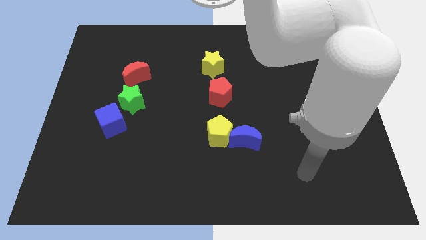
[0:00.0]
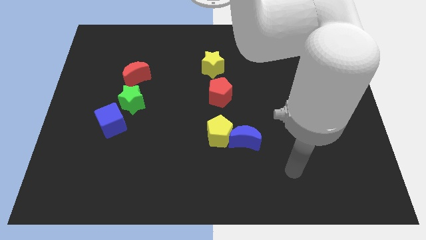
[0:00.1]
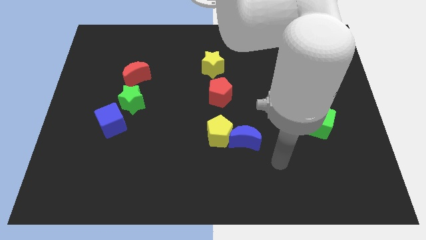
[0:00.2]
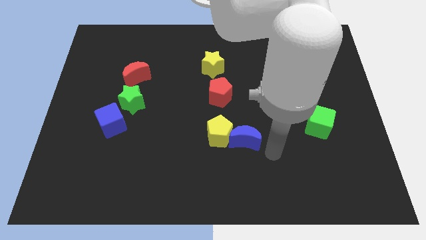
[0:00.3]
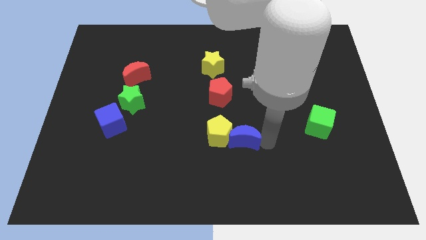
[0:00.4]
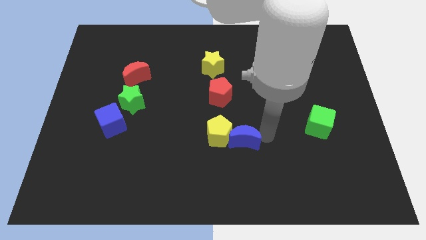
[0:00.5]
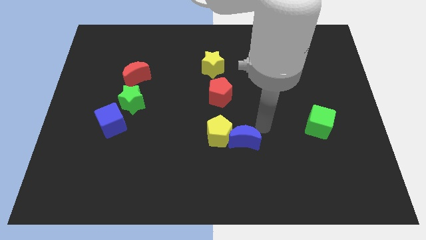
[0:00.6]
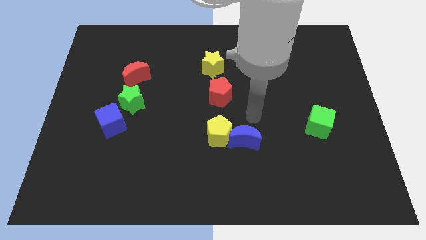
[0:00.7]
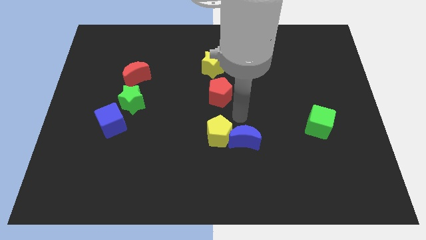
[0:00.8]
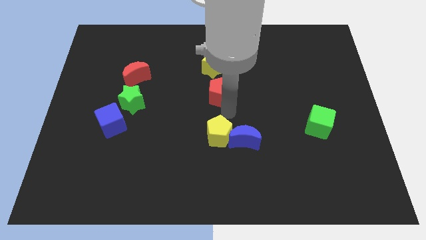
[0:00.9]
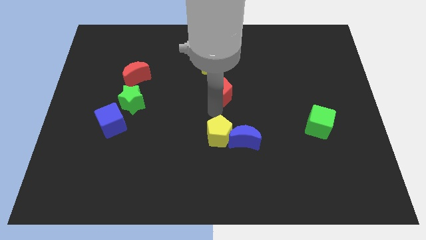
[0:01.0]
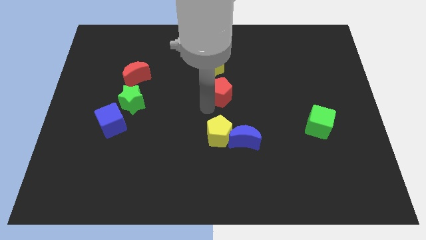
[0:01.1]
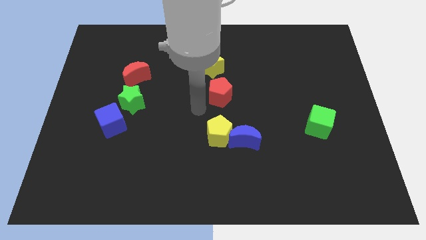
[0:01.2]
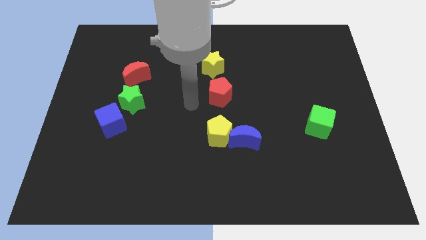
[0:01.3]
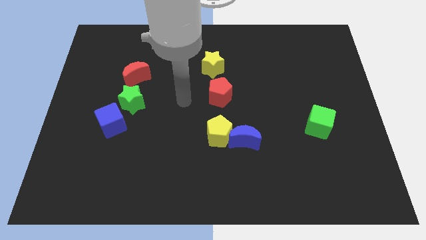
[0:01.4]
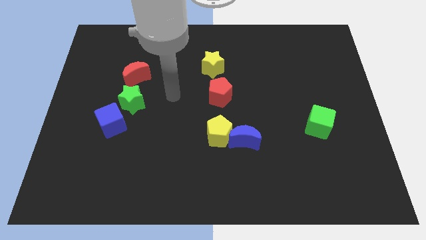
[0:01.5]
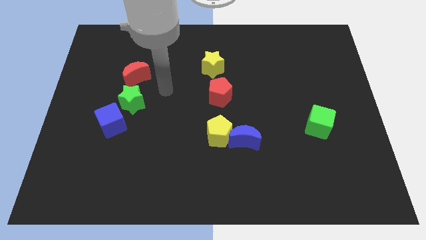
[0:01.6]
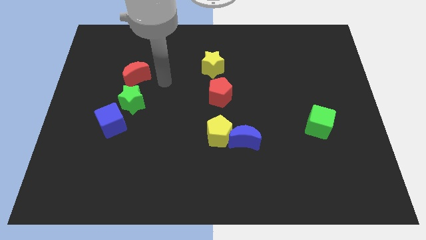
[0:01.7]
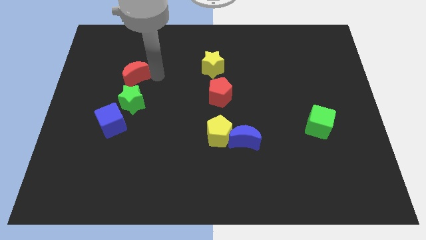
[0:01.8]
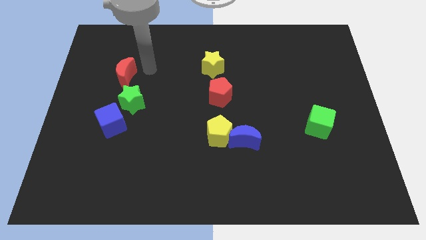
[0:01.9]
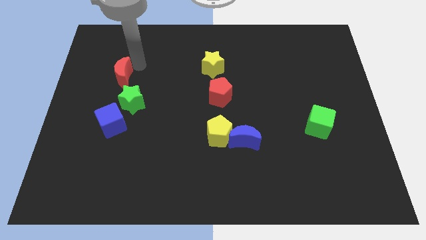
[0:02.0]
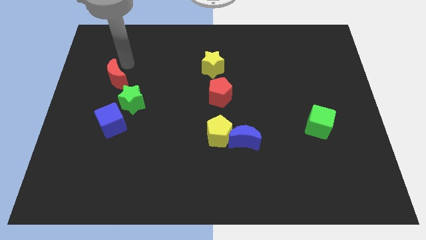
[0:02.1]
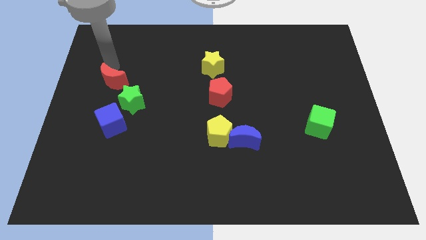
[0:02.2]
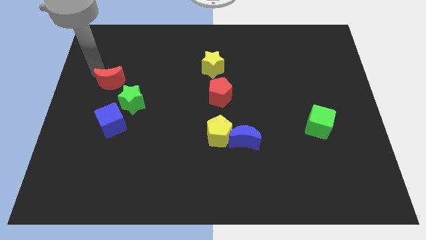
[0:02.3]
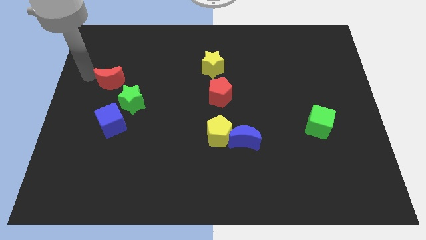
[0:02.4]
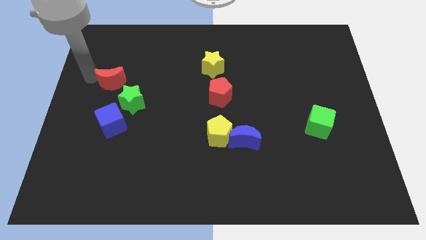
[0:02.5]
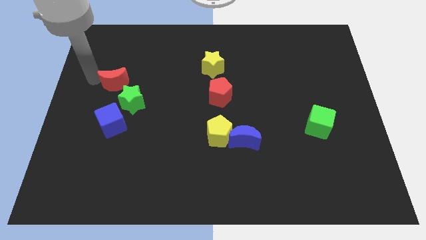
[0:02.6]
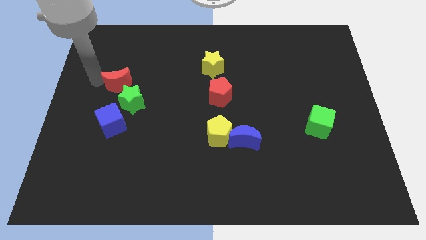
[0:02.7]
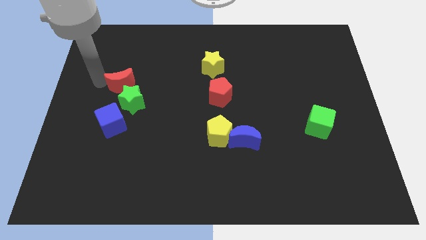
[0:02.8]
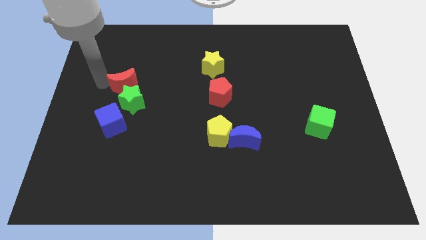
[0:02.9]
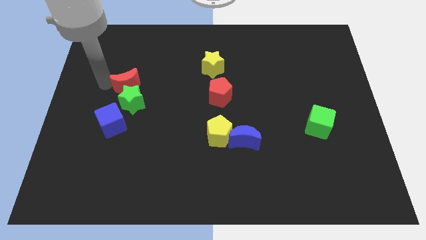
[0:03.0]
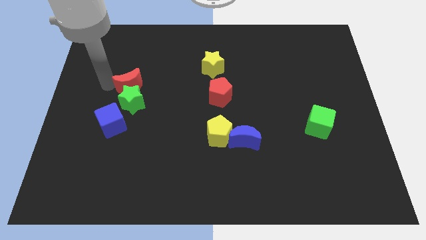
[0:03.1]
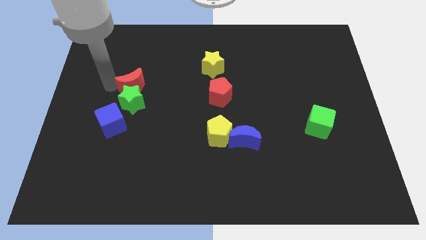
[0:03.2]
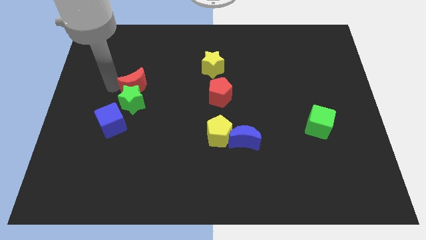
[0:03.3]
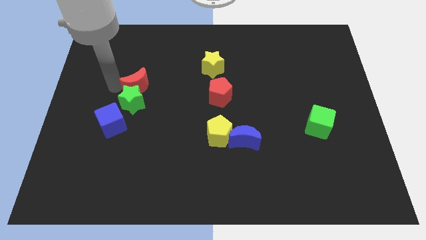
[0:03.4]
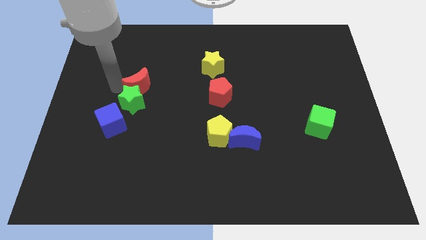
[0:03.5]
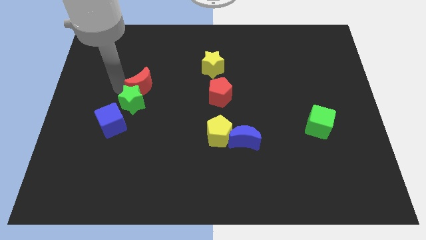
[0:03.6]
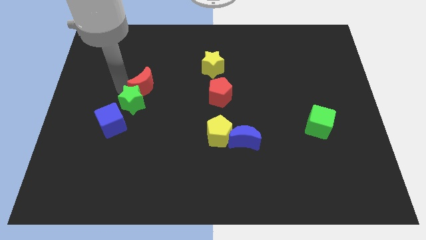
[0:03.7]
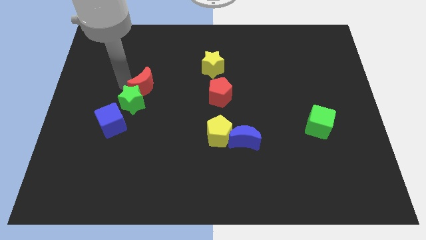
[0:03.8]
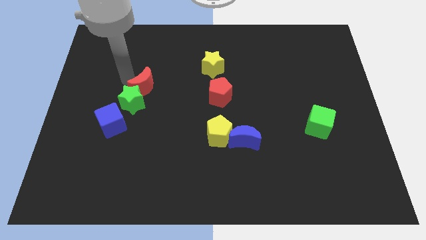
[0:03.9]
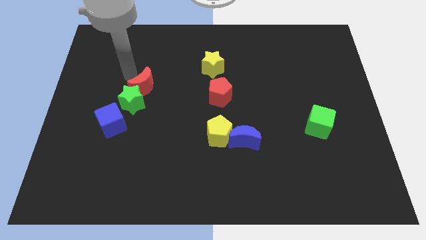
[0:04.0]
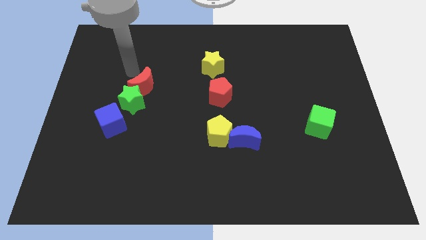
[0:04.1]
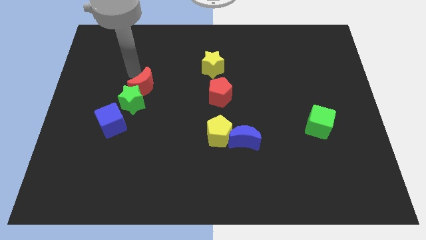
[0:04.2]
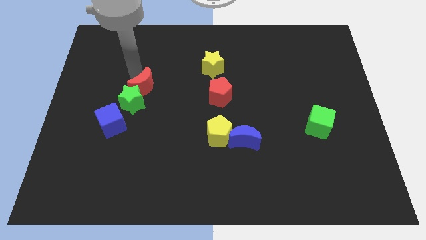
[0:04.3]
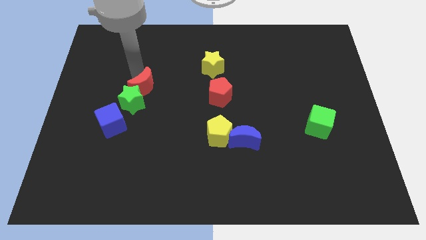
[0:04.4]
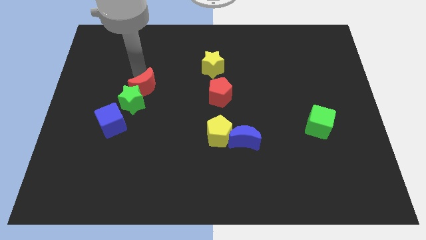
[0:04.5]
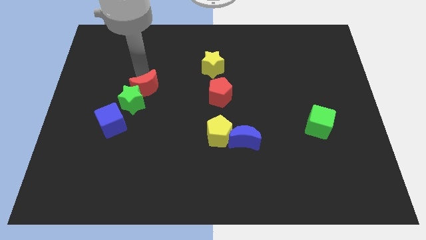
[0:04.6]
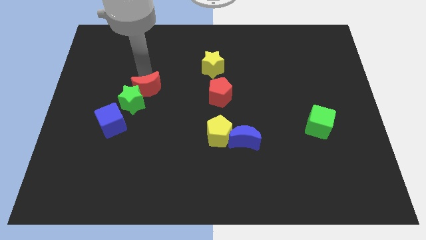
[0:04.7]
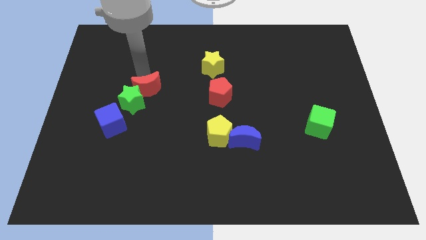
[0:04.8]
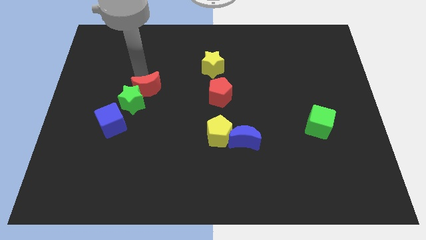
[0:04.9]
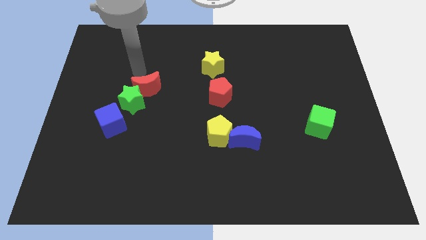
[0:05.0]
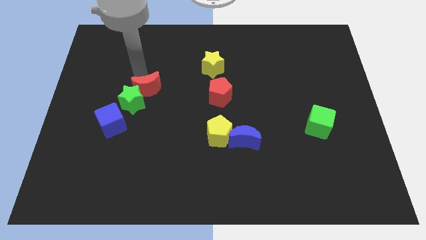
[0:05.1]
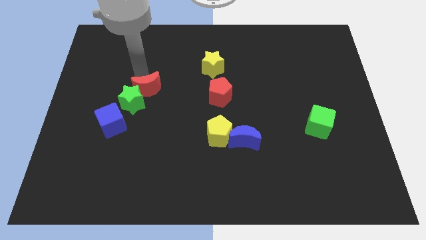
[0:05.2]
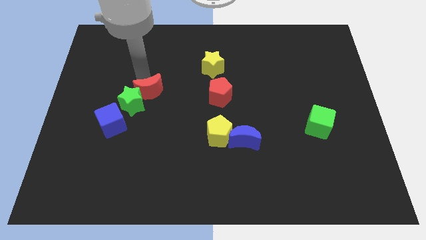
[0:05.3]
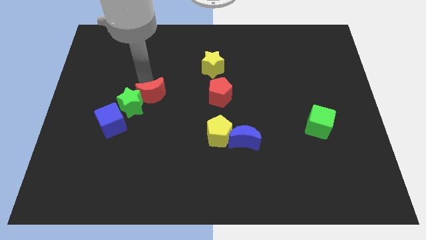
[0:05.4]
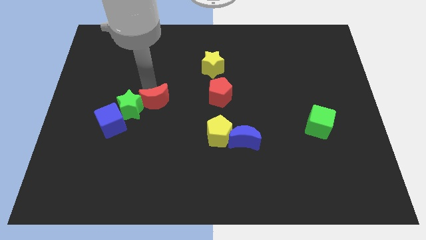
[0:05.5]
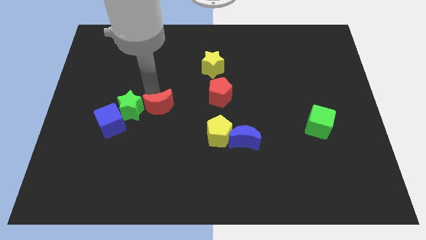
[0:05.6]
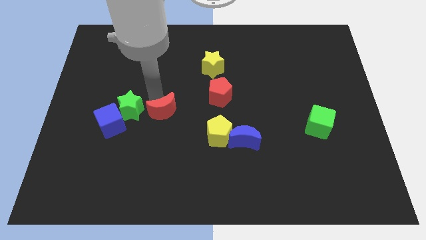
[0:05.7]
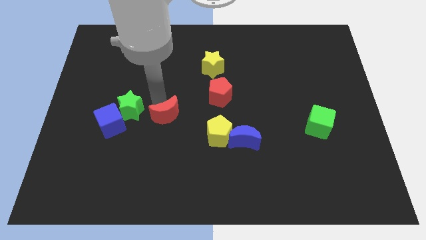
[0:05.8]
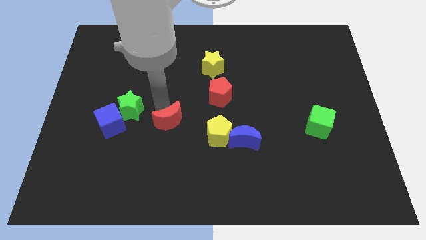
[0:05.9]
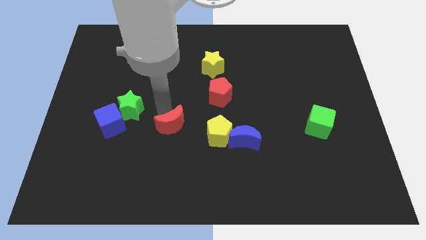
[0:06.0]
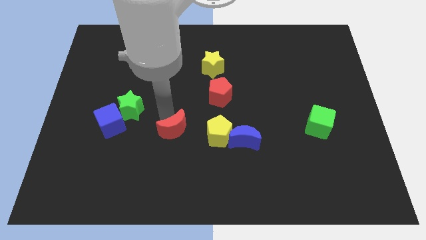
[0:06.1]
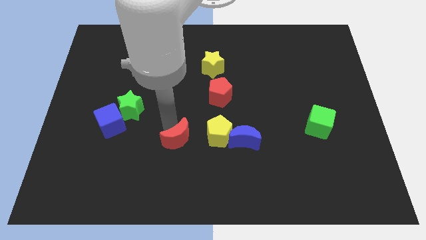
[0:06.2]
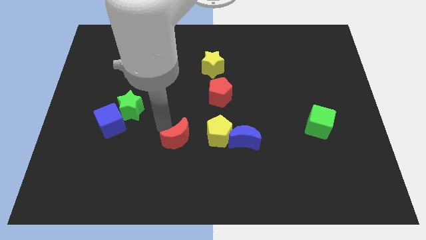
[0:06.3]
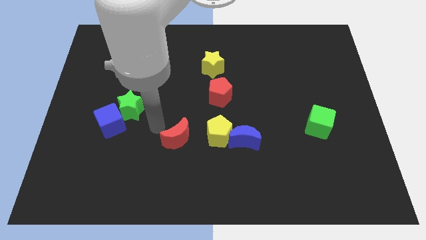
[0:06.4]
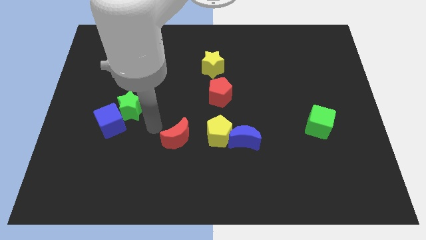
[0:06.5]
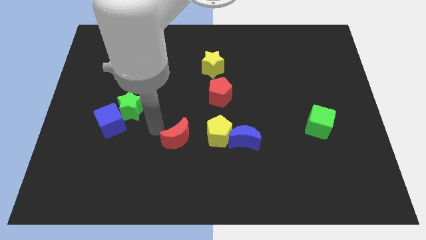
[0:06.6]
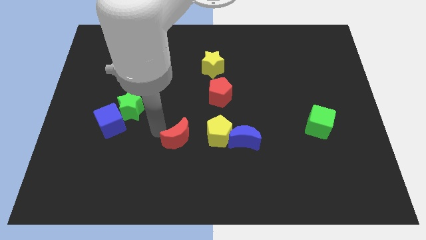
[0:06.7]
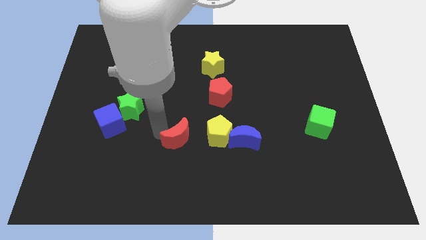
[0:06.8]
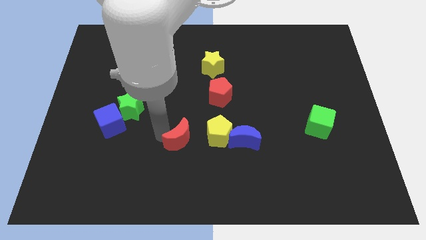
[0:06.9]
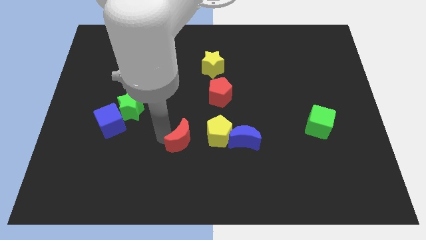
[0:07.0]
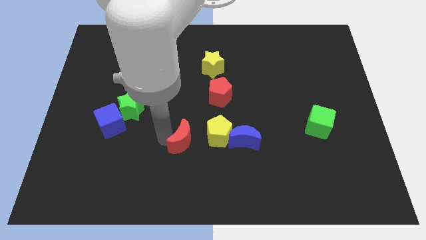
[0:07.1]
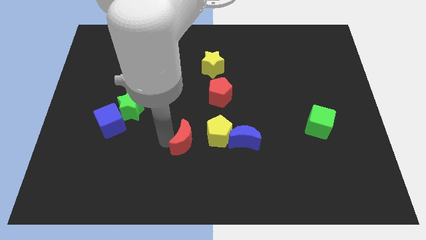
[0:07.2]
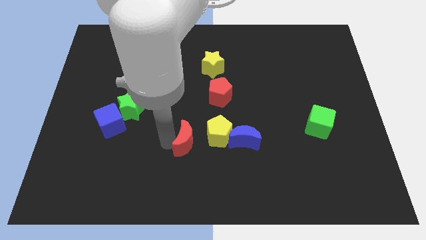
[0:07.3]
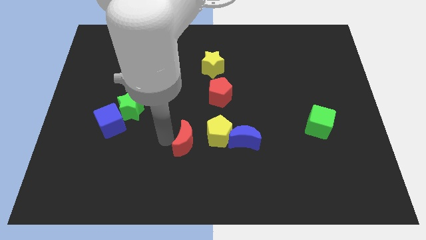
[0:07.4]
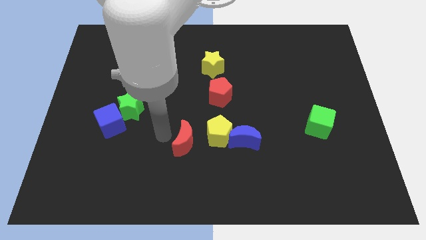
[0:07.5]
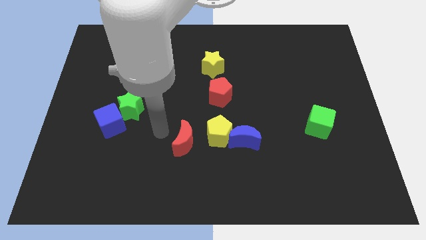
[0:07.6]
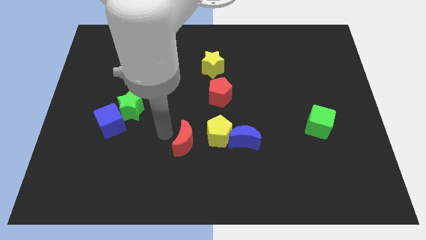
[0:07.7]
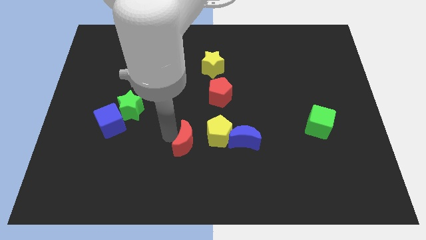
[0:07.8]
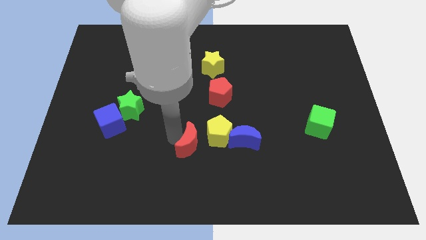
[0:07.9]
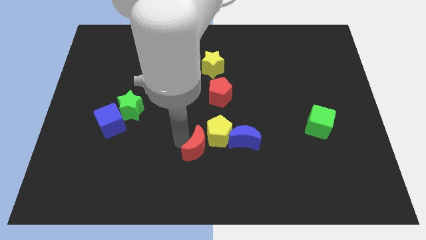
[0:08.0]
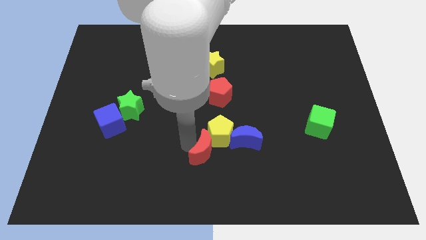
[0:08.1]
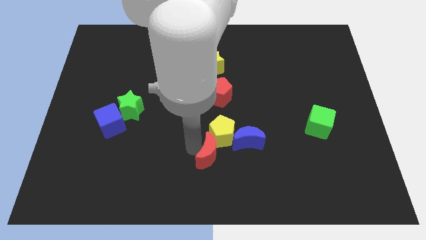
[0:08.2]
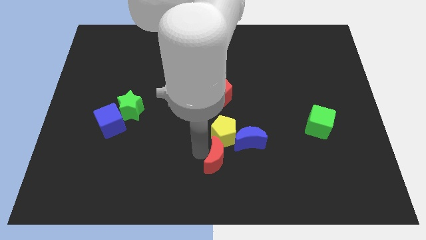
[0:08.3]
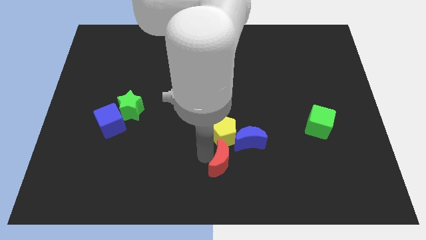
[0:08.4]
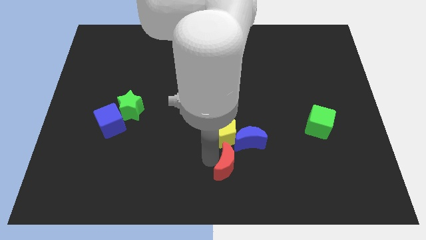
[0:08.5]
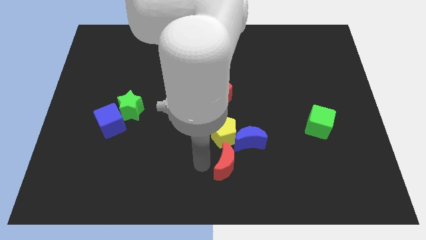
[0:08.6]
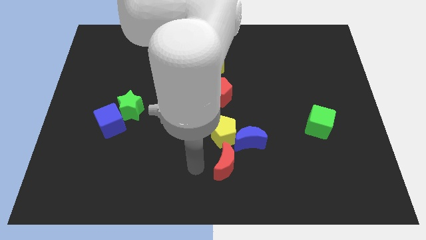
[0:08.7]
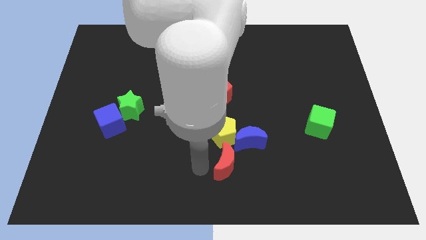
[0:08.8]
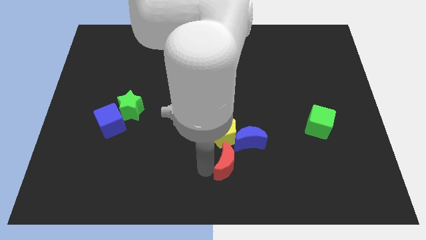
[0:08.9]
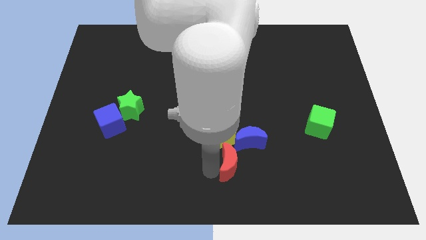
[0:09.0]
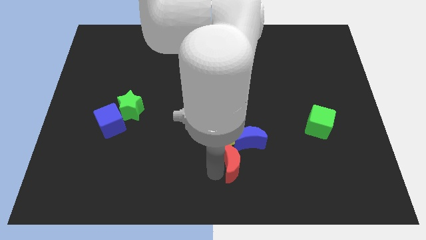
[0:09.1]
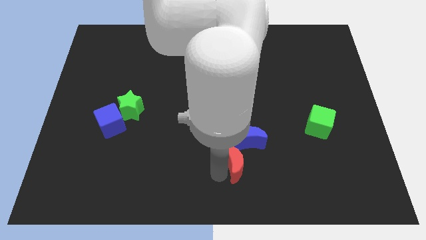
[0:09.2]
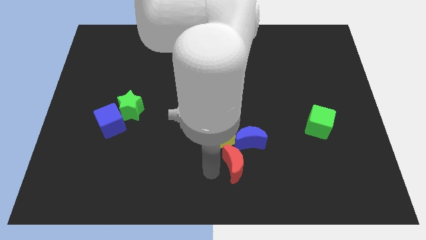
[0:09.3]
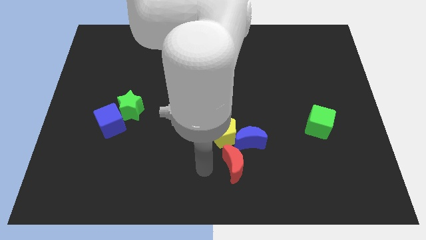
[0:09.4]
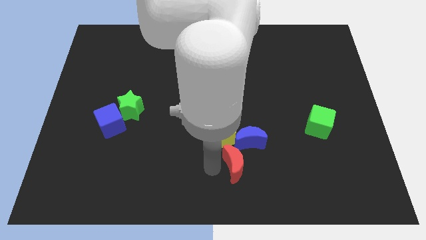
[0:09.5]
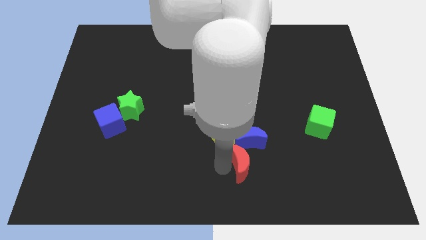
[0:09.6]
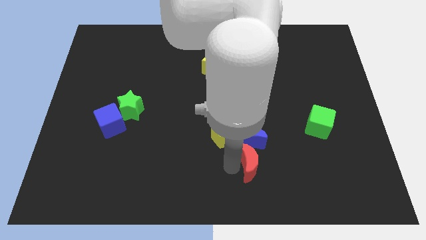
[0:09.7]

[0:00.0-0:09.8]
slide the red moon diagonally down and to the right of the blue moon
